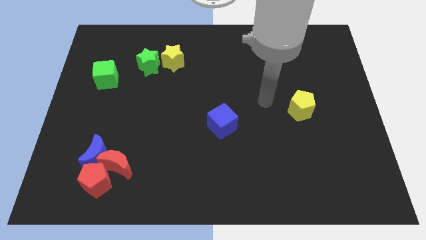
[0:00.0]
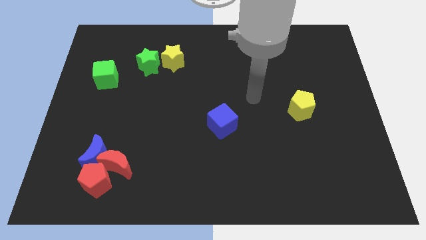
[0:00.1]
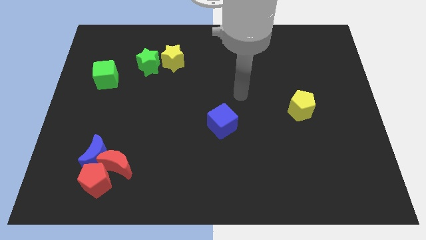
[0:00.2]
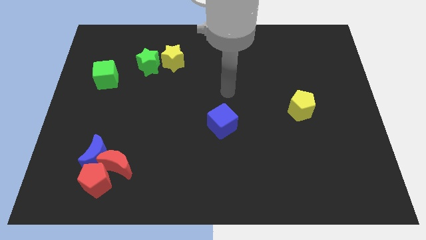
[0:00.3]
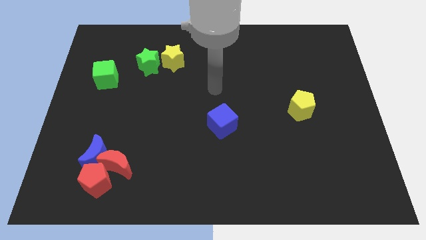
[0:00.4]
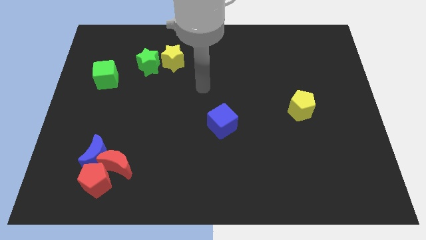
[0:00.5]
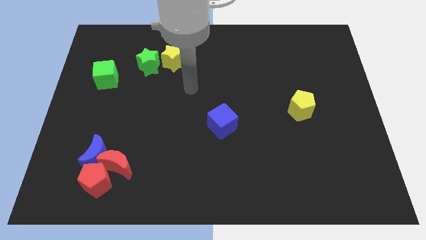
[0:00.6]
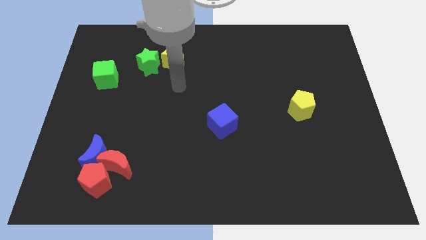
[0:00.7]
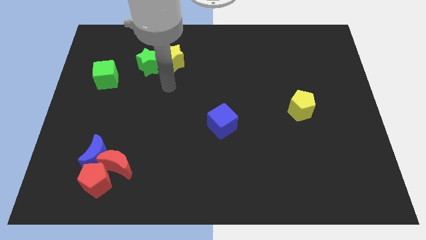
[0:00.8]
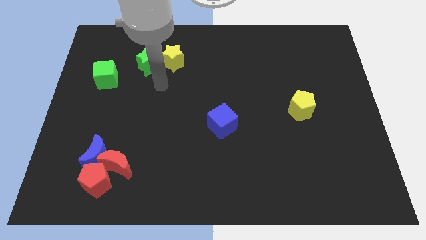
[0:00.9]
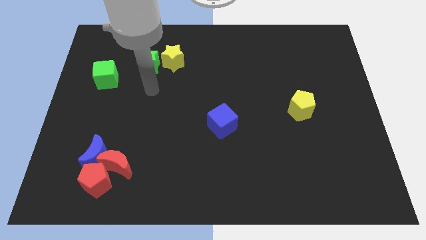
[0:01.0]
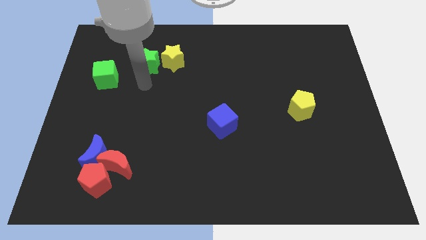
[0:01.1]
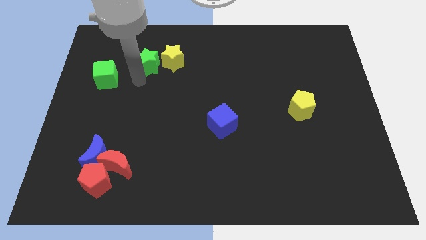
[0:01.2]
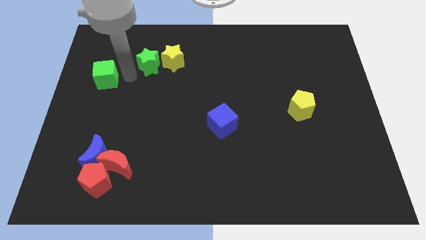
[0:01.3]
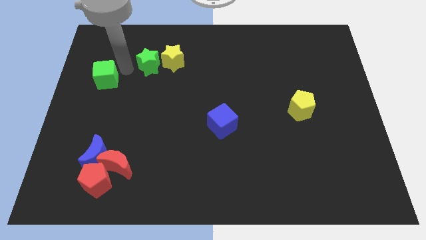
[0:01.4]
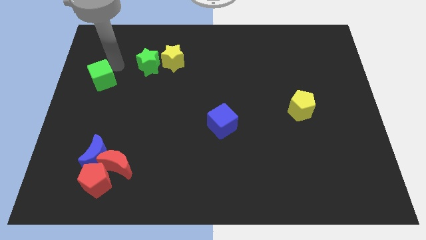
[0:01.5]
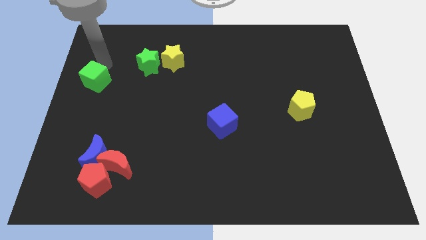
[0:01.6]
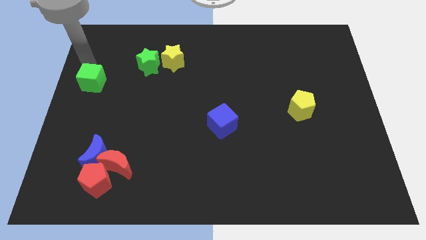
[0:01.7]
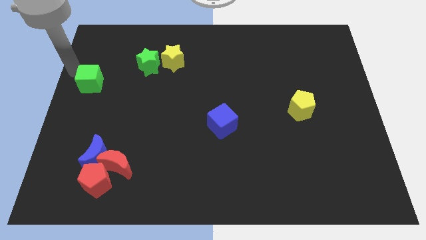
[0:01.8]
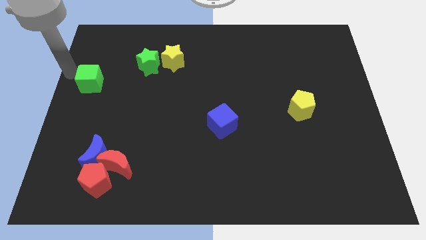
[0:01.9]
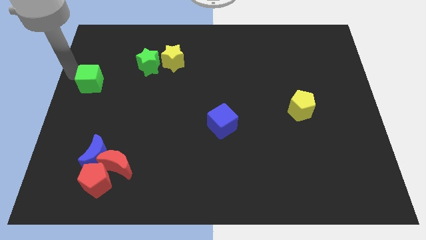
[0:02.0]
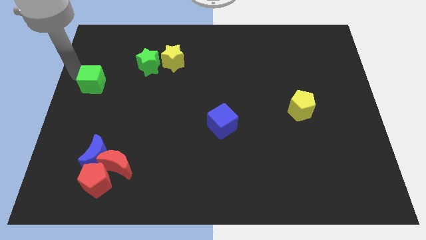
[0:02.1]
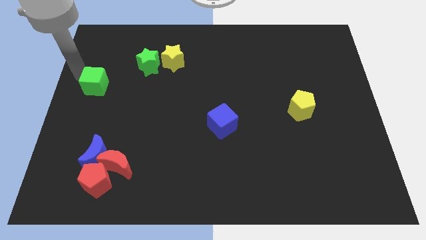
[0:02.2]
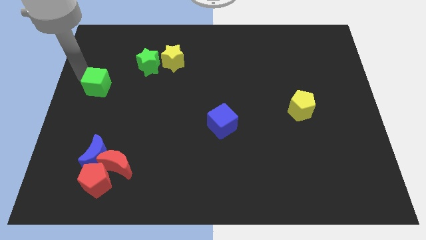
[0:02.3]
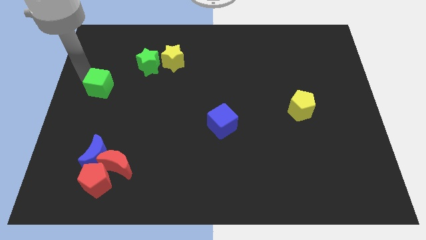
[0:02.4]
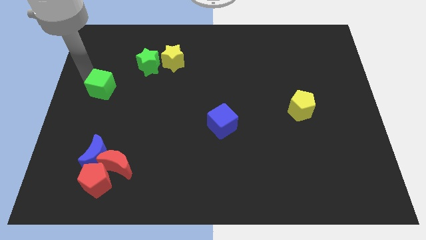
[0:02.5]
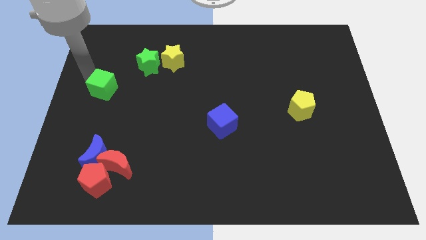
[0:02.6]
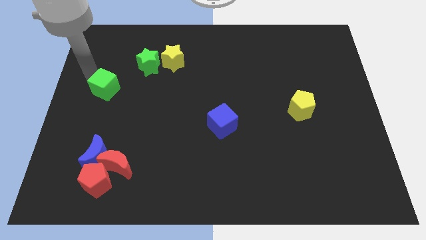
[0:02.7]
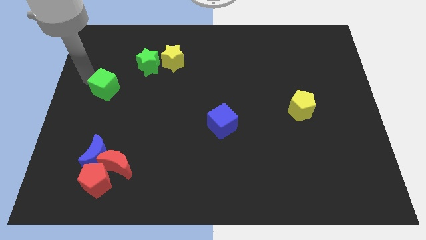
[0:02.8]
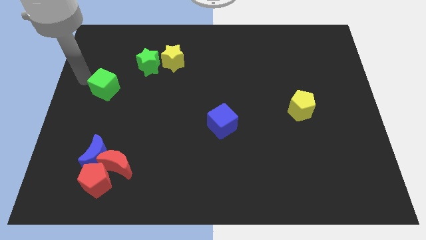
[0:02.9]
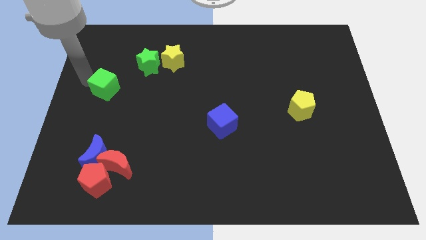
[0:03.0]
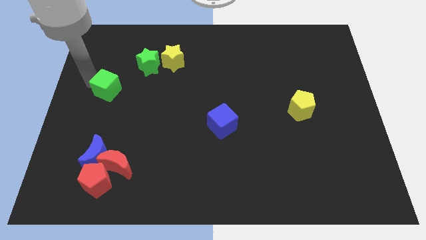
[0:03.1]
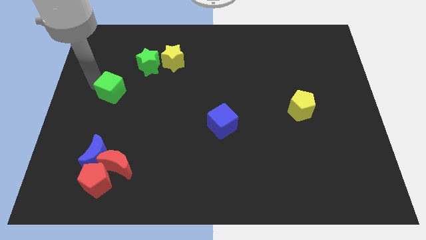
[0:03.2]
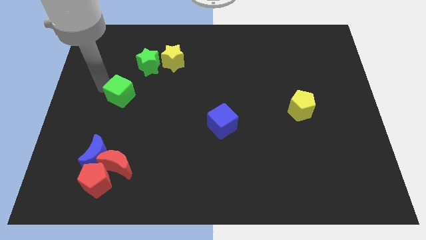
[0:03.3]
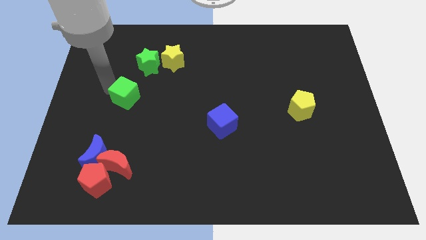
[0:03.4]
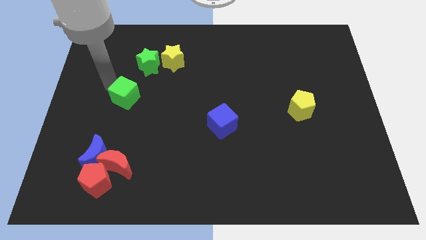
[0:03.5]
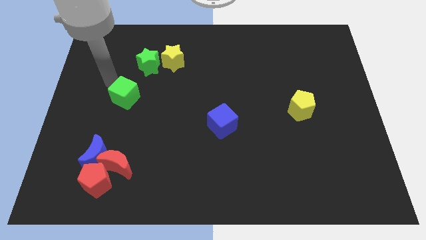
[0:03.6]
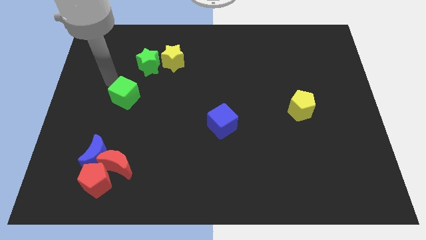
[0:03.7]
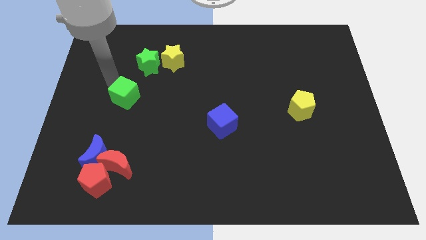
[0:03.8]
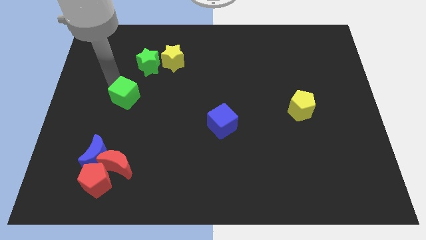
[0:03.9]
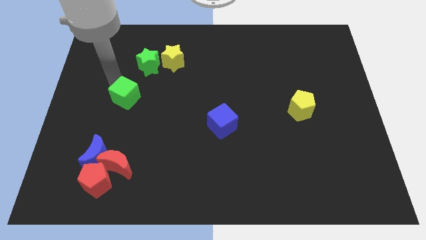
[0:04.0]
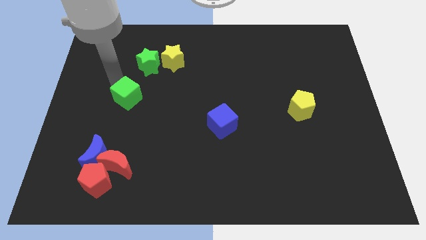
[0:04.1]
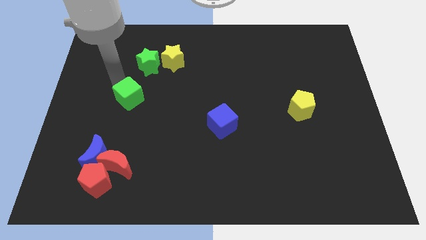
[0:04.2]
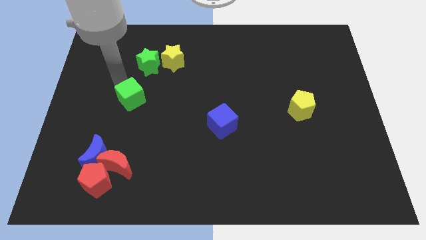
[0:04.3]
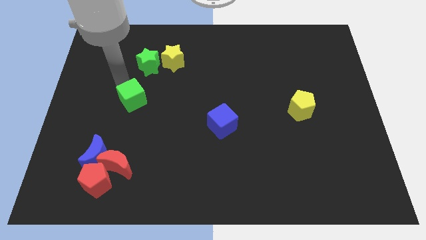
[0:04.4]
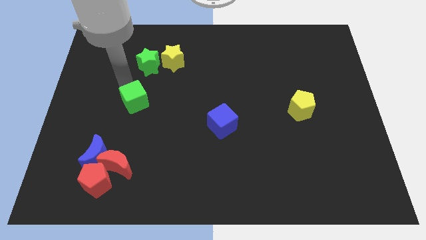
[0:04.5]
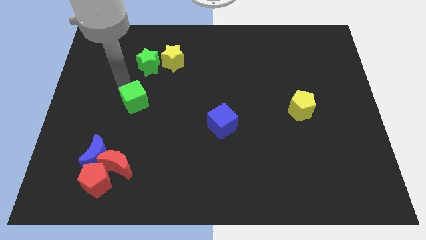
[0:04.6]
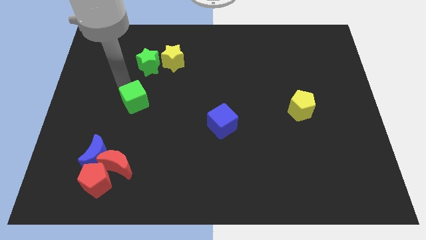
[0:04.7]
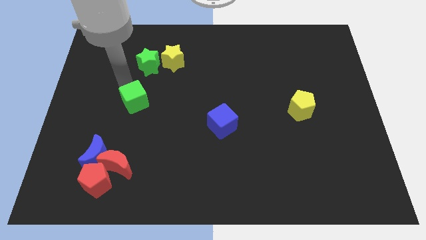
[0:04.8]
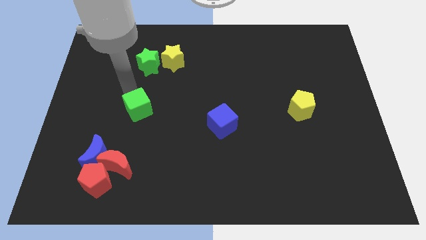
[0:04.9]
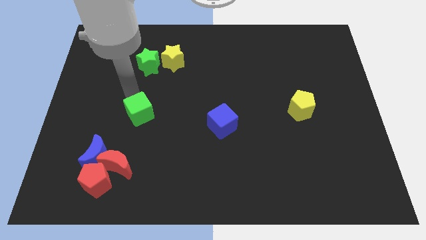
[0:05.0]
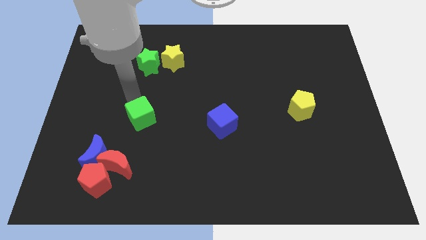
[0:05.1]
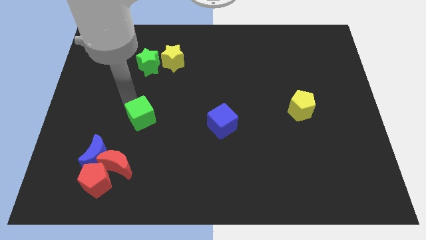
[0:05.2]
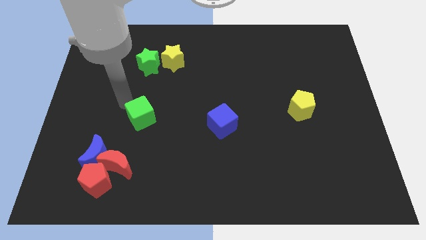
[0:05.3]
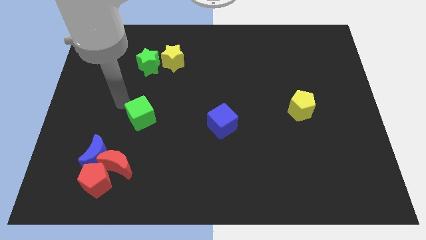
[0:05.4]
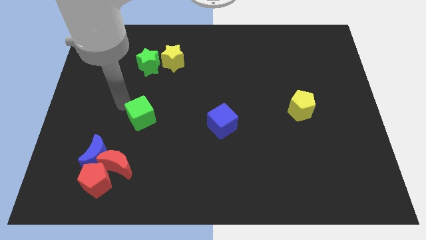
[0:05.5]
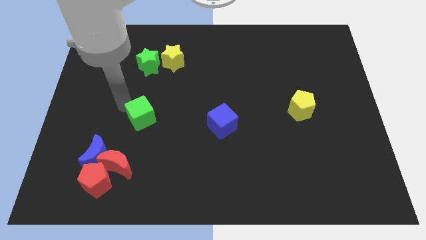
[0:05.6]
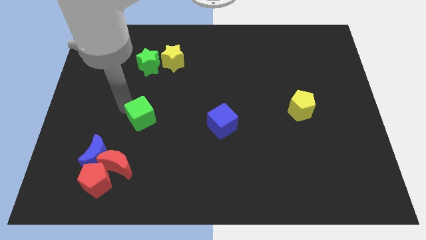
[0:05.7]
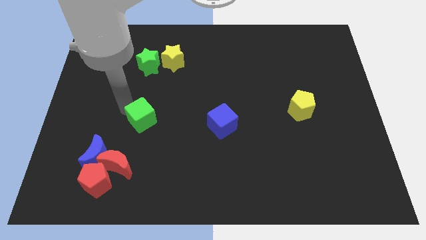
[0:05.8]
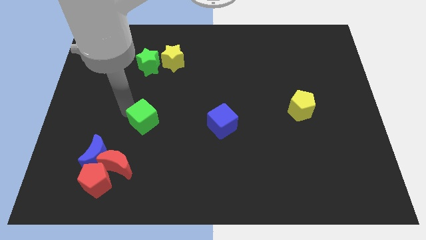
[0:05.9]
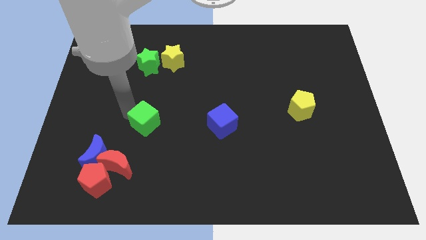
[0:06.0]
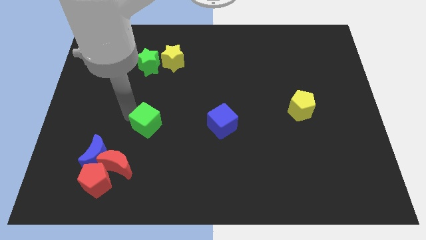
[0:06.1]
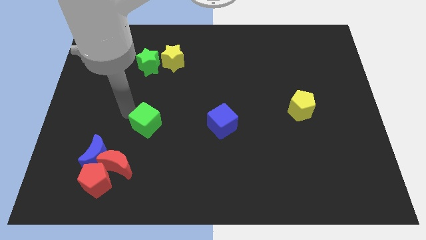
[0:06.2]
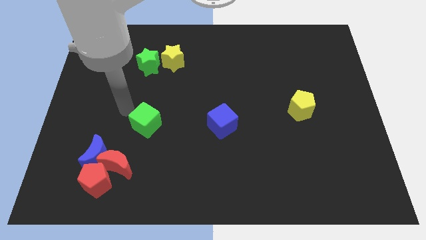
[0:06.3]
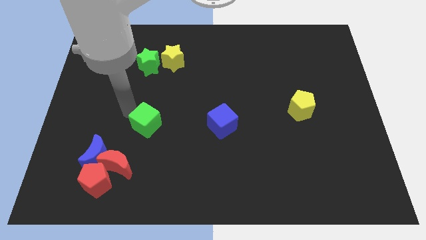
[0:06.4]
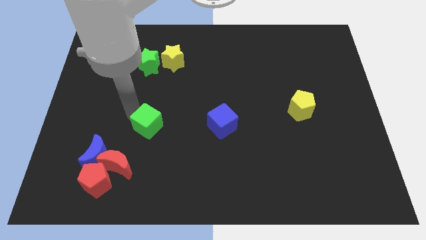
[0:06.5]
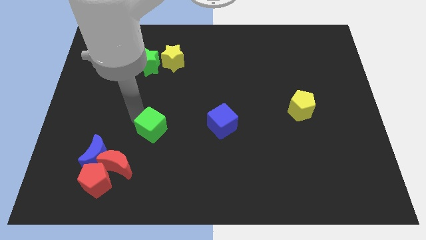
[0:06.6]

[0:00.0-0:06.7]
slide the green cube down and right diagonally

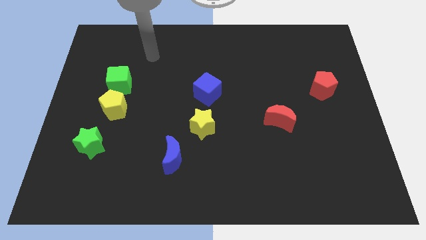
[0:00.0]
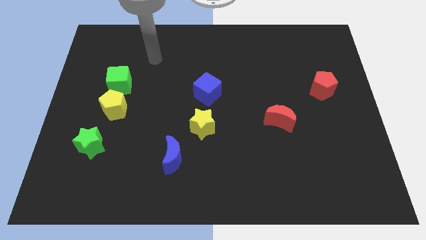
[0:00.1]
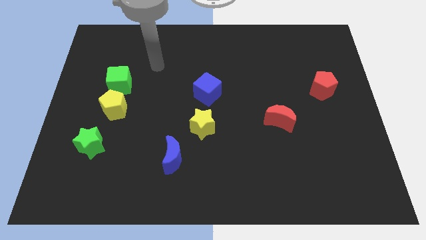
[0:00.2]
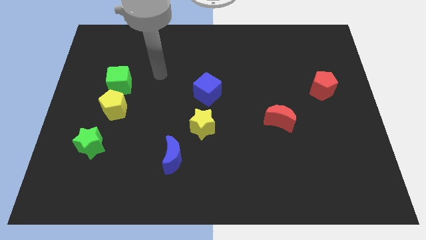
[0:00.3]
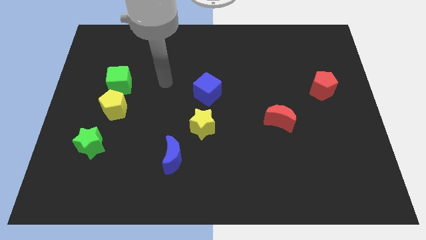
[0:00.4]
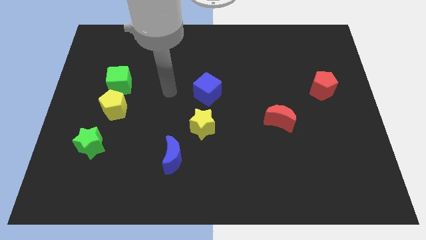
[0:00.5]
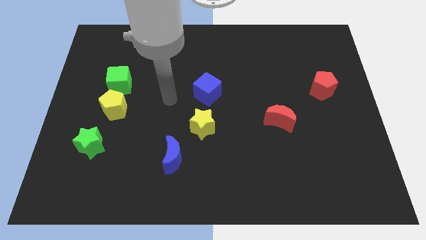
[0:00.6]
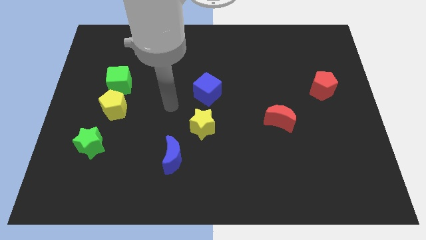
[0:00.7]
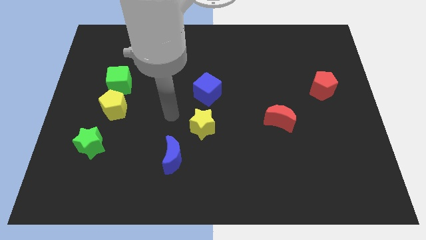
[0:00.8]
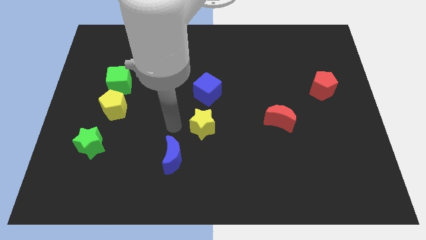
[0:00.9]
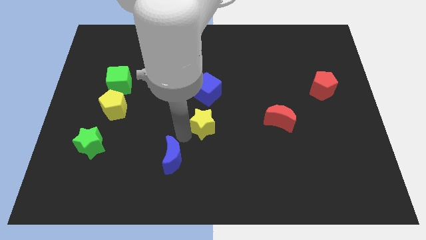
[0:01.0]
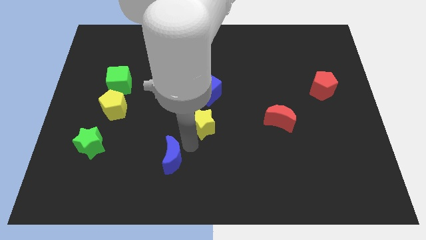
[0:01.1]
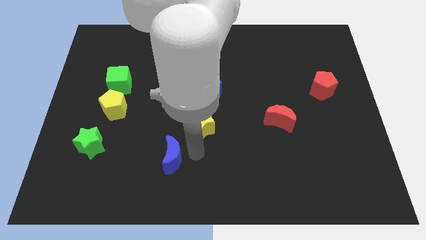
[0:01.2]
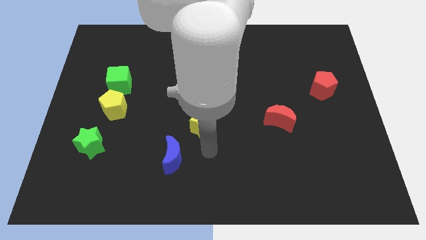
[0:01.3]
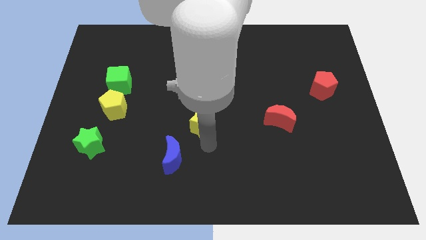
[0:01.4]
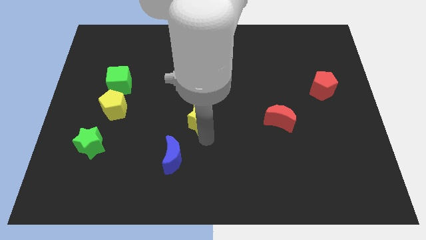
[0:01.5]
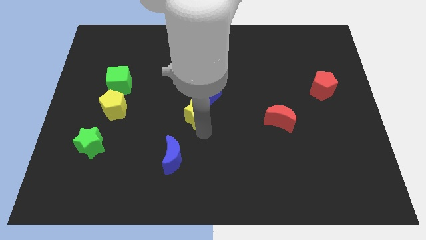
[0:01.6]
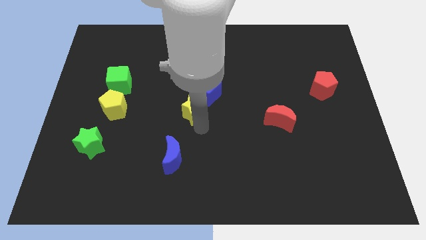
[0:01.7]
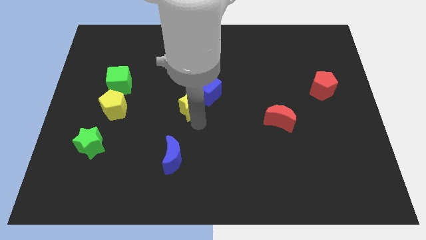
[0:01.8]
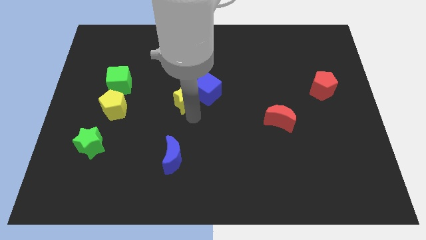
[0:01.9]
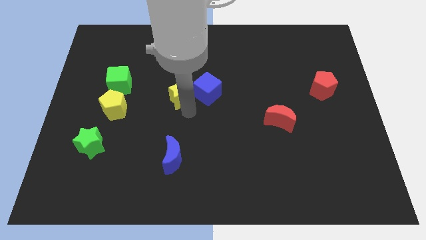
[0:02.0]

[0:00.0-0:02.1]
push the yellow star upwards a bit
